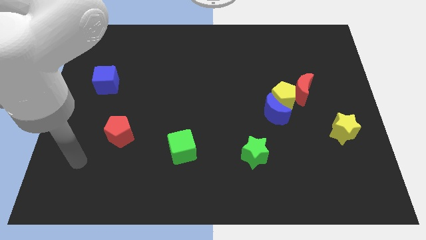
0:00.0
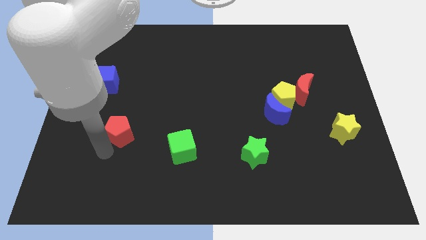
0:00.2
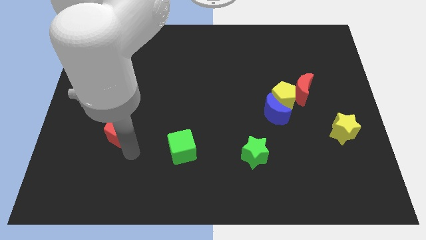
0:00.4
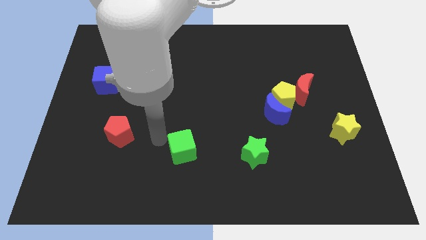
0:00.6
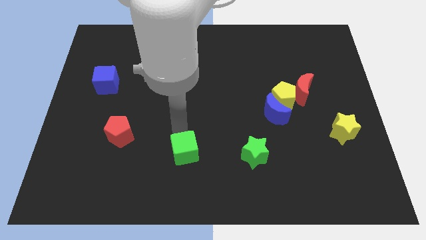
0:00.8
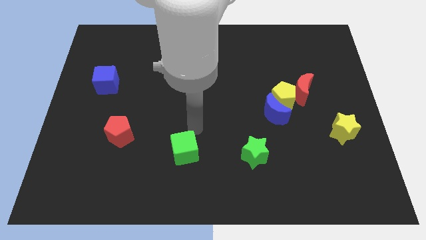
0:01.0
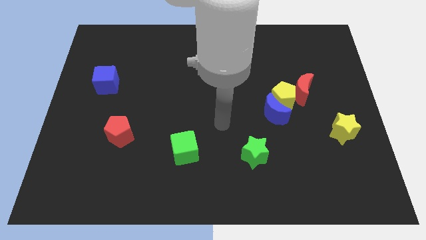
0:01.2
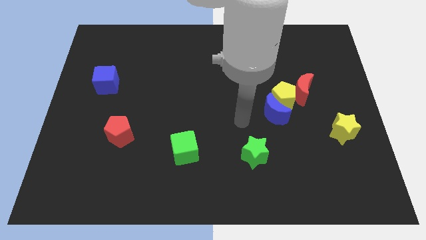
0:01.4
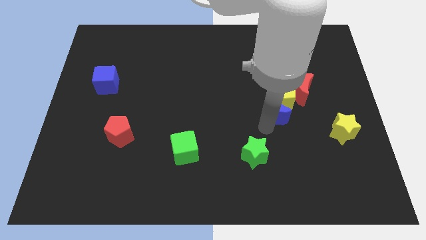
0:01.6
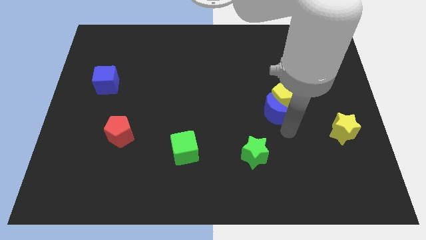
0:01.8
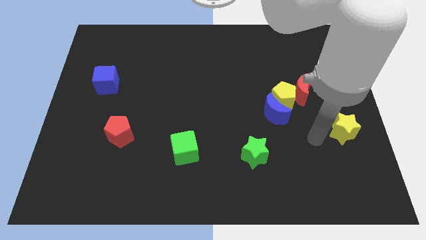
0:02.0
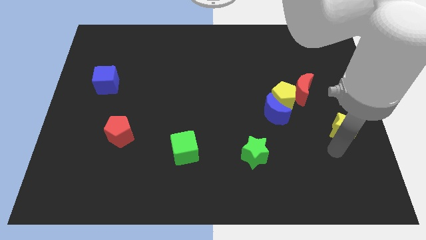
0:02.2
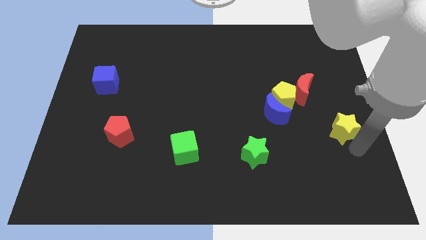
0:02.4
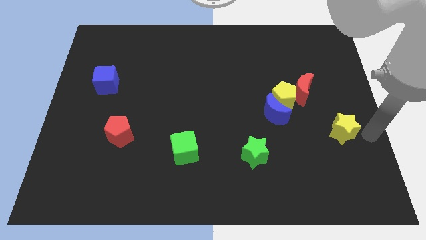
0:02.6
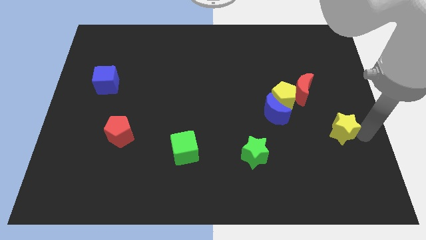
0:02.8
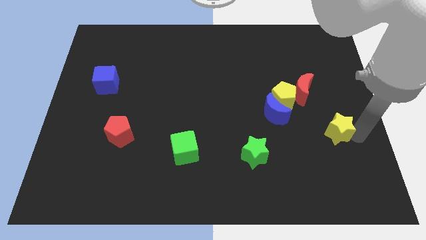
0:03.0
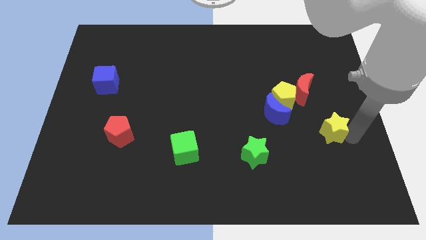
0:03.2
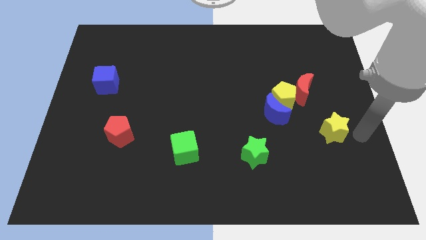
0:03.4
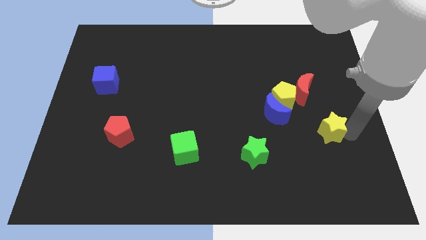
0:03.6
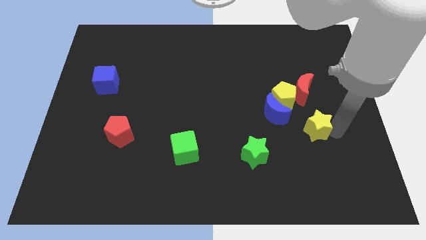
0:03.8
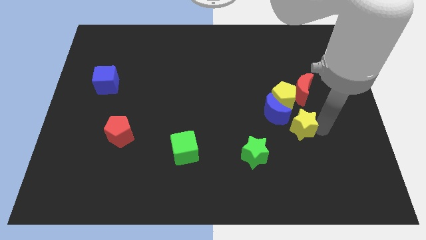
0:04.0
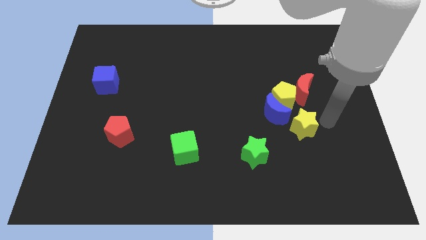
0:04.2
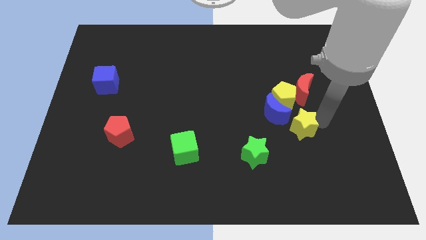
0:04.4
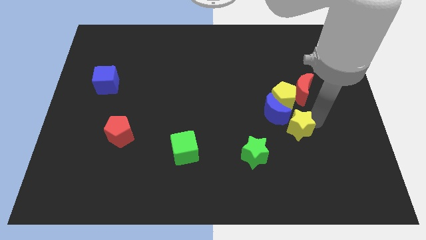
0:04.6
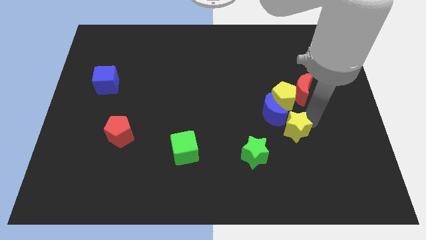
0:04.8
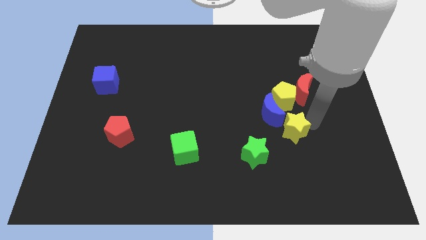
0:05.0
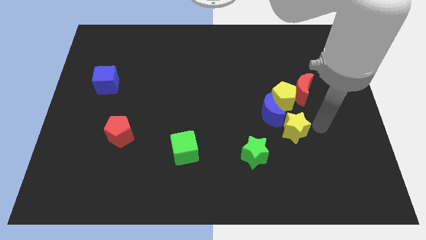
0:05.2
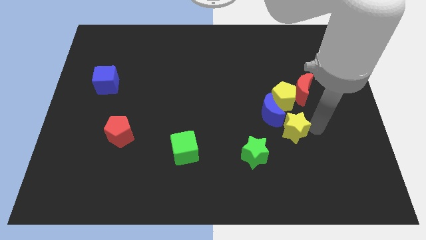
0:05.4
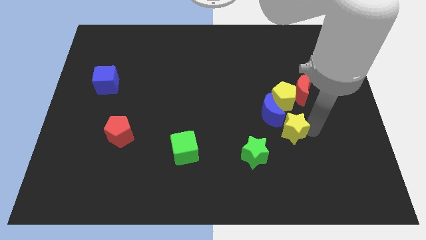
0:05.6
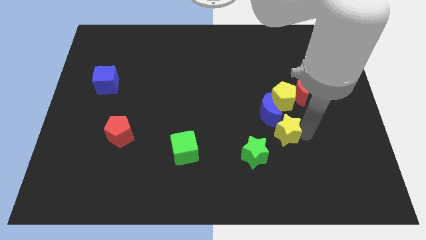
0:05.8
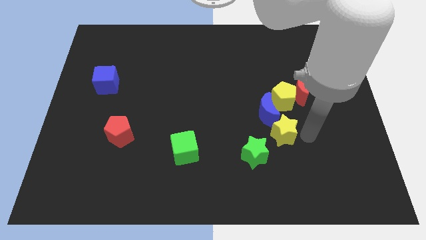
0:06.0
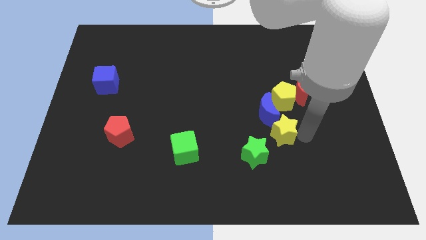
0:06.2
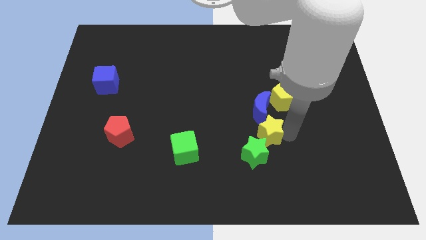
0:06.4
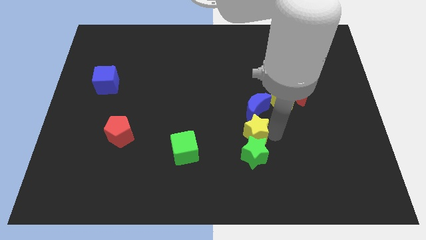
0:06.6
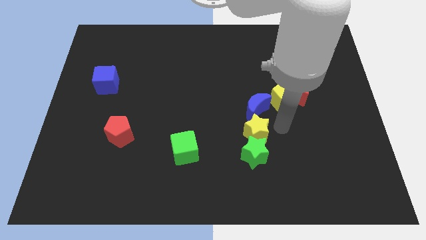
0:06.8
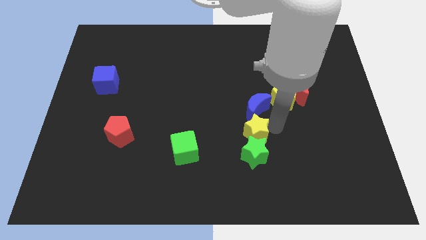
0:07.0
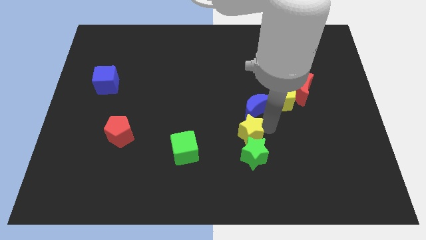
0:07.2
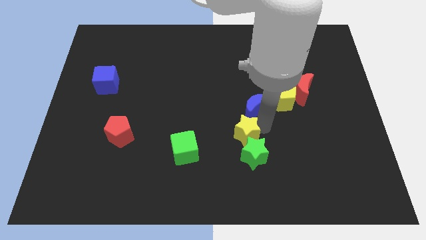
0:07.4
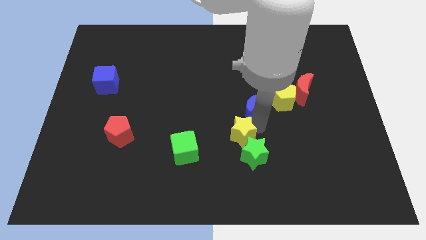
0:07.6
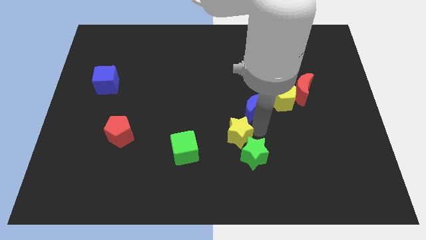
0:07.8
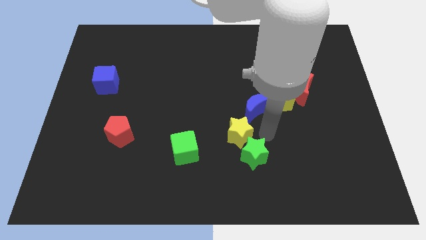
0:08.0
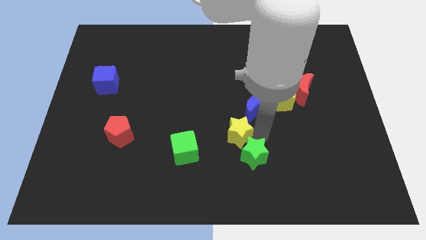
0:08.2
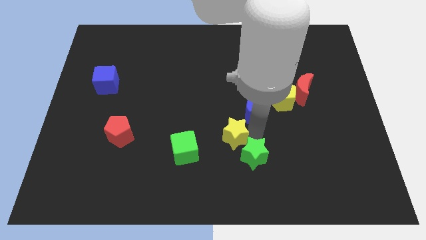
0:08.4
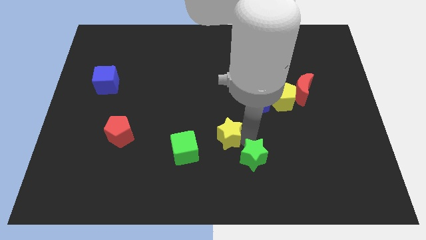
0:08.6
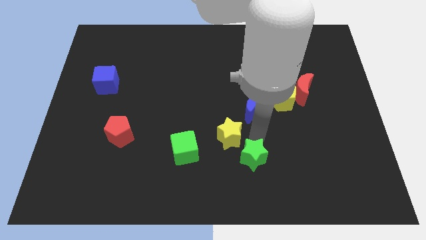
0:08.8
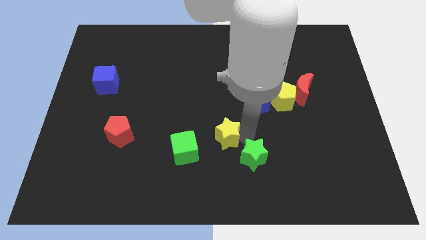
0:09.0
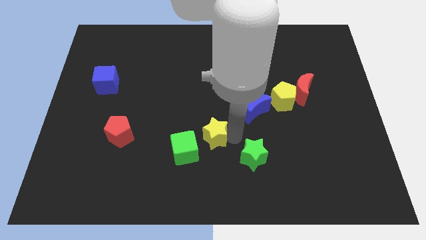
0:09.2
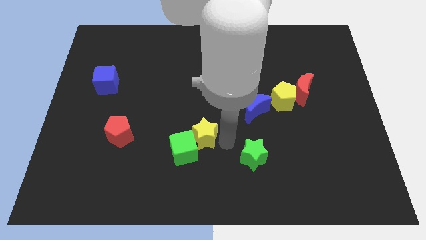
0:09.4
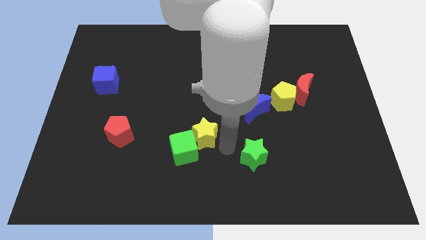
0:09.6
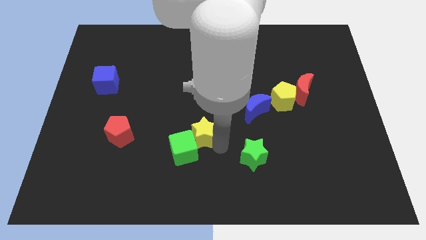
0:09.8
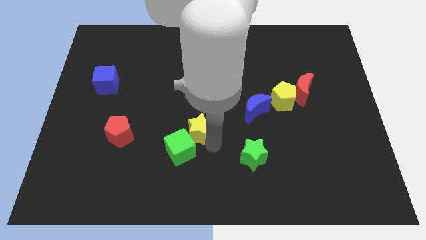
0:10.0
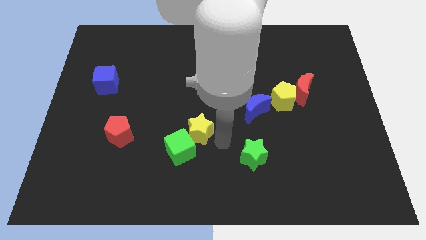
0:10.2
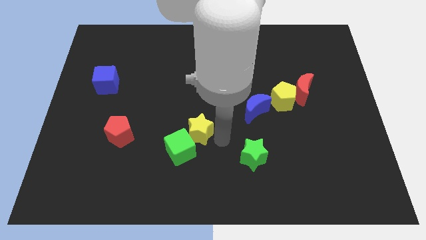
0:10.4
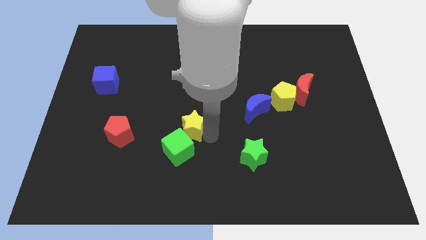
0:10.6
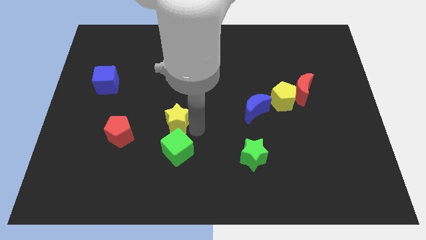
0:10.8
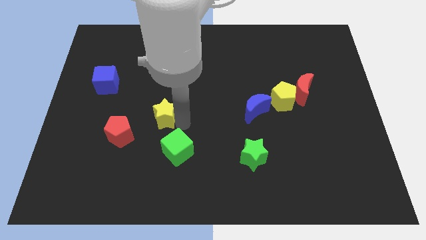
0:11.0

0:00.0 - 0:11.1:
slide the yellow star diagonally up and to the right of the red pentagon

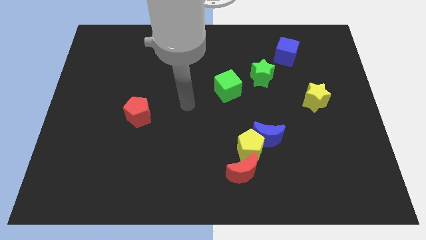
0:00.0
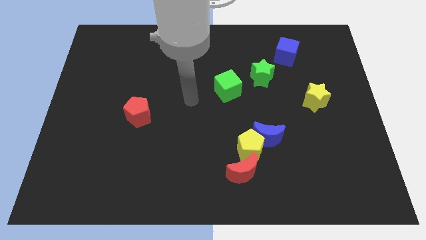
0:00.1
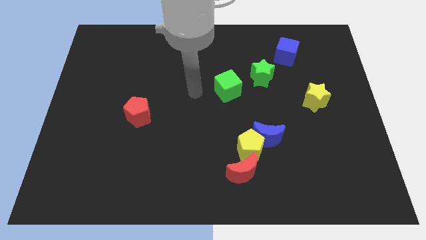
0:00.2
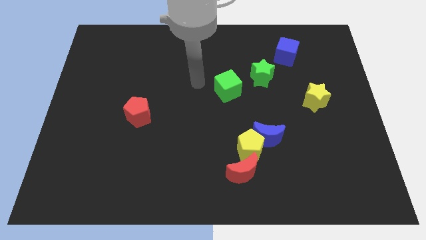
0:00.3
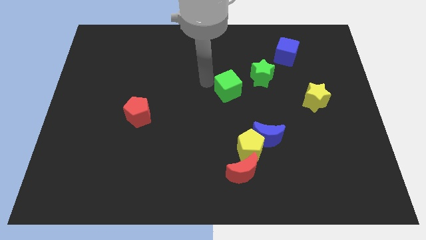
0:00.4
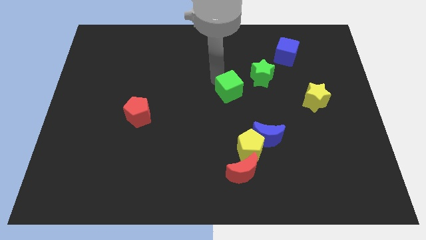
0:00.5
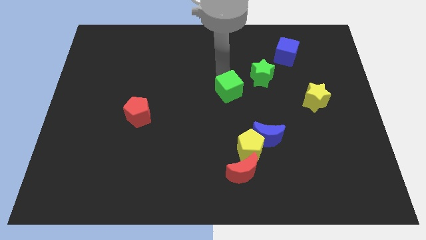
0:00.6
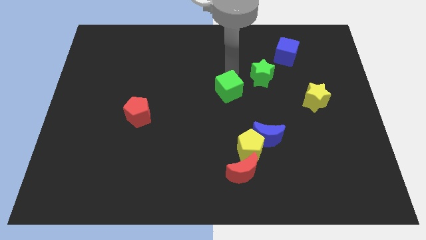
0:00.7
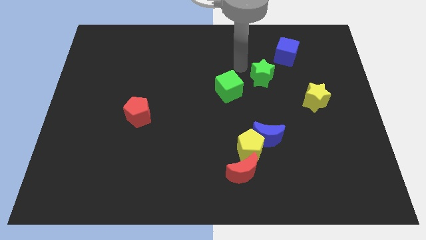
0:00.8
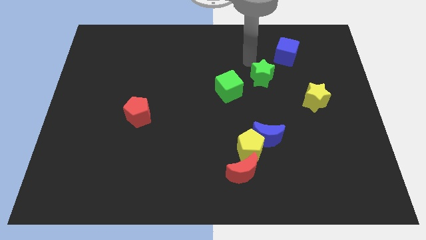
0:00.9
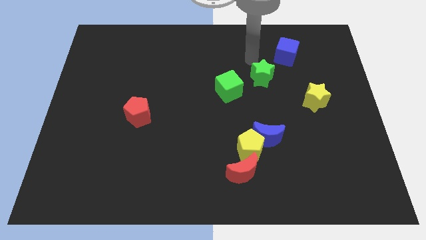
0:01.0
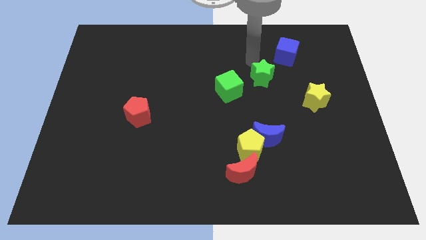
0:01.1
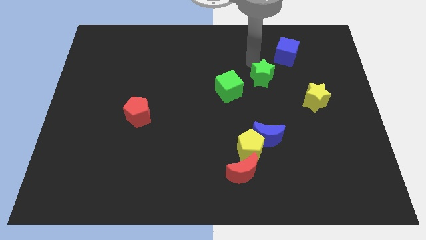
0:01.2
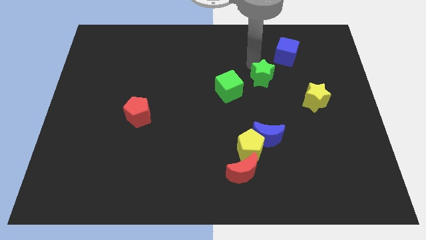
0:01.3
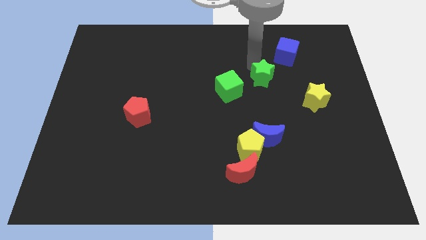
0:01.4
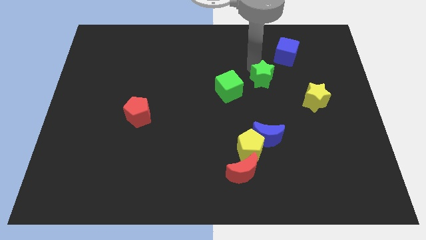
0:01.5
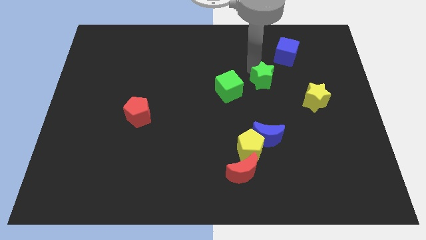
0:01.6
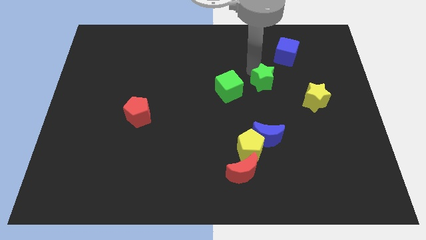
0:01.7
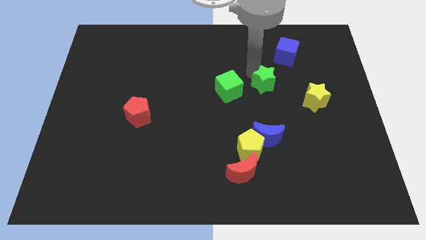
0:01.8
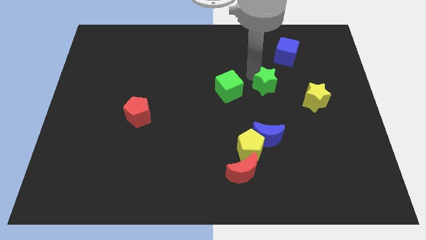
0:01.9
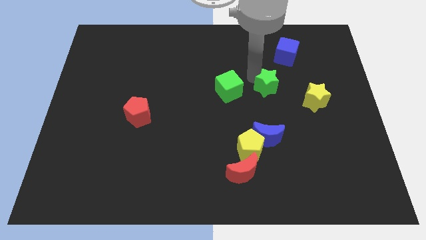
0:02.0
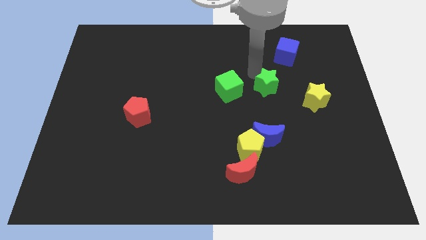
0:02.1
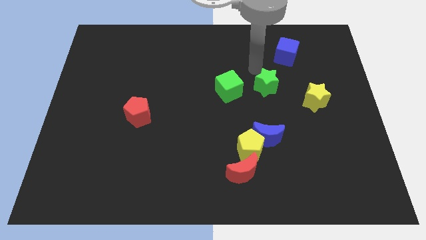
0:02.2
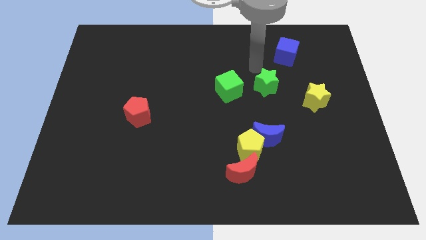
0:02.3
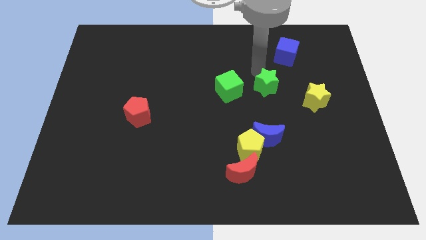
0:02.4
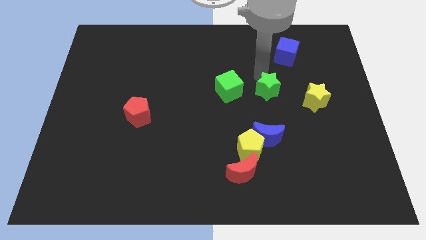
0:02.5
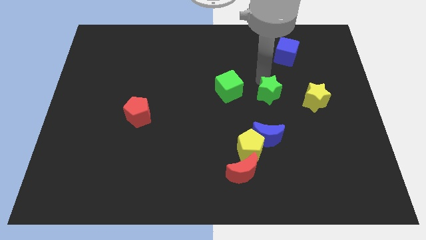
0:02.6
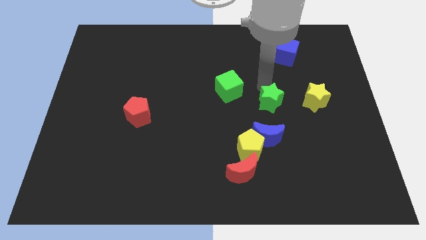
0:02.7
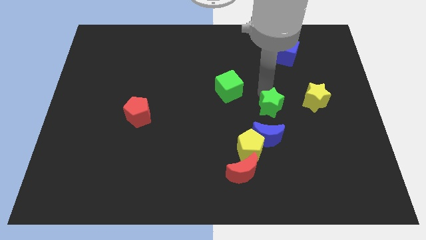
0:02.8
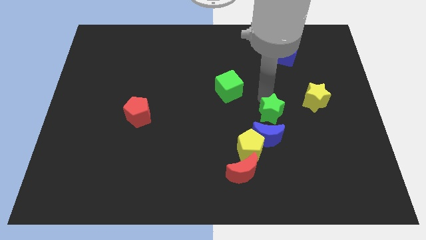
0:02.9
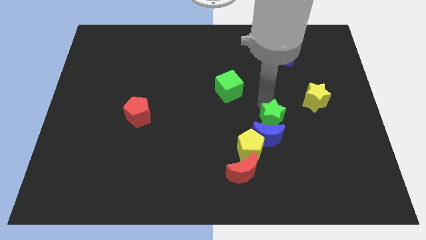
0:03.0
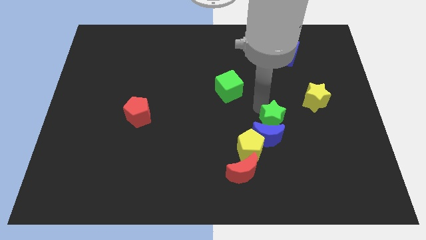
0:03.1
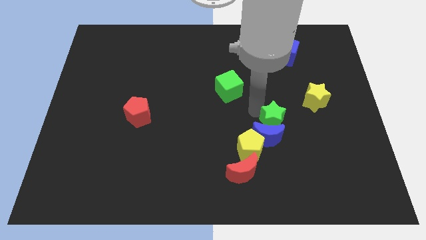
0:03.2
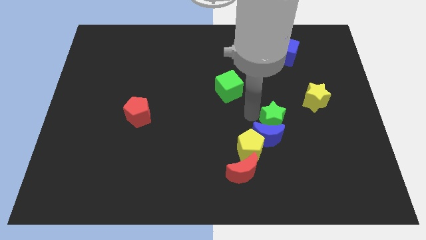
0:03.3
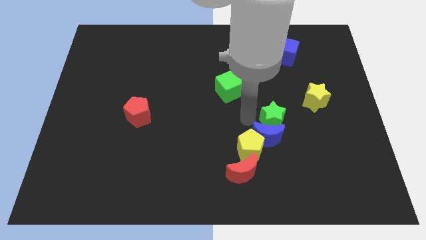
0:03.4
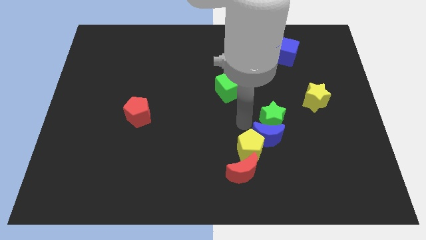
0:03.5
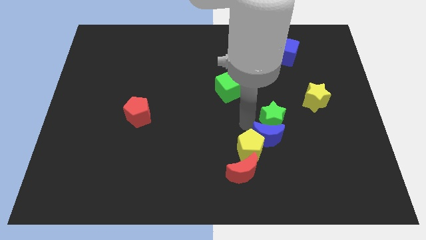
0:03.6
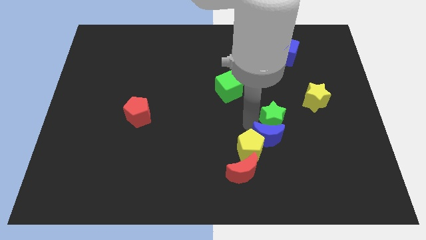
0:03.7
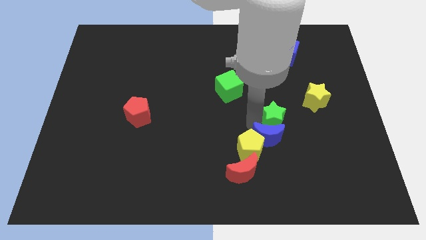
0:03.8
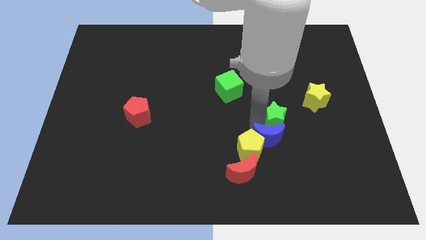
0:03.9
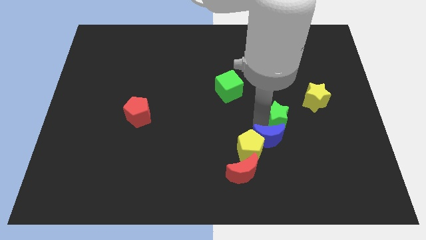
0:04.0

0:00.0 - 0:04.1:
put the green star diagonally down and to the left of the yellow star
